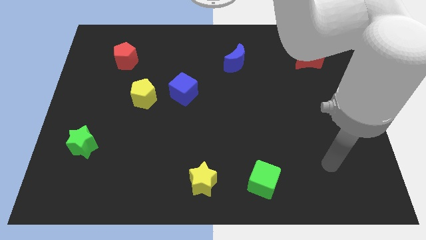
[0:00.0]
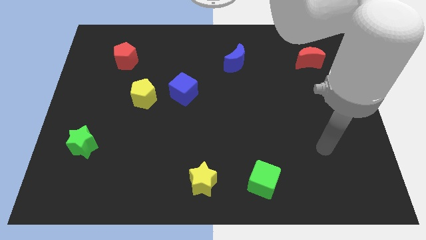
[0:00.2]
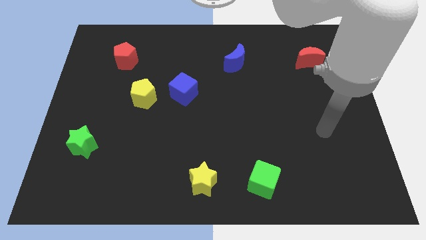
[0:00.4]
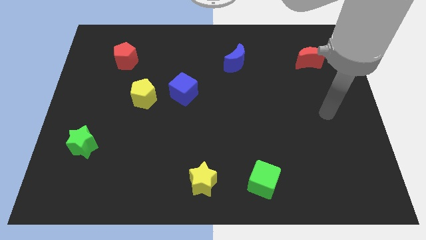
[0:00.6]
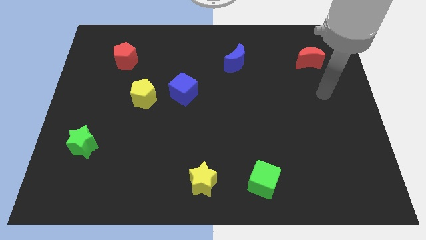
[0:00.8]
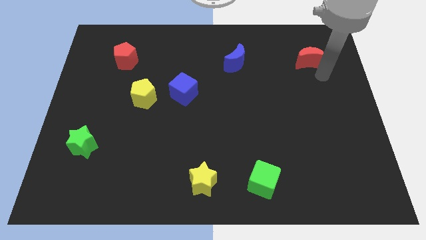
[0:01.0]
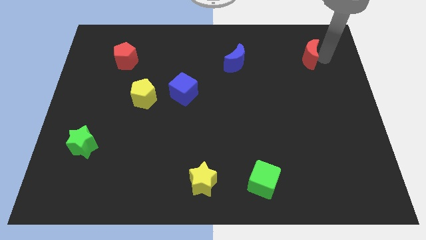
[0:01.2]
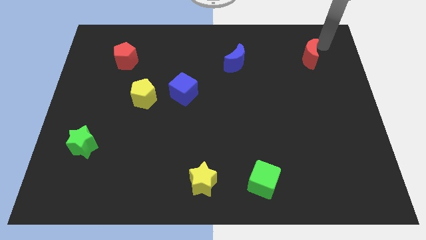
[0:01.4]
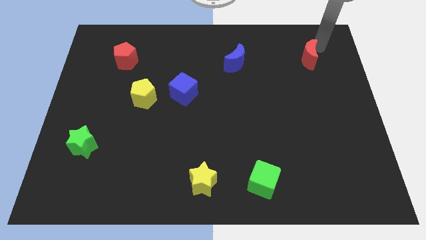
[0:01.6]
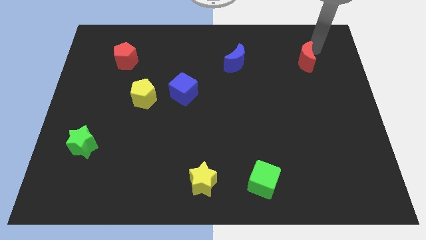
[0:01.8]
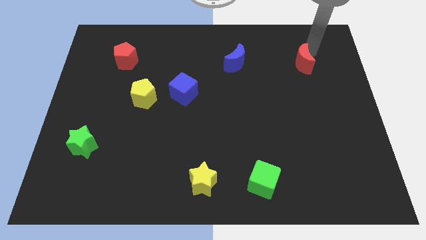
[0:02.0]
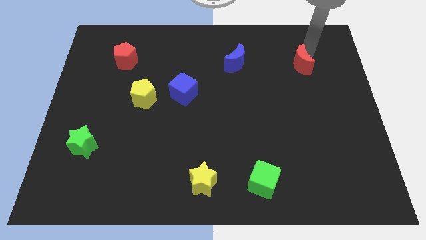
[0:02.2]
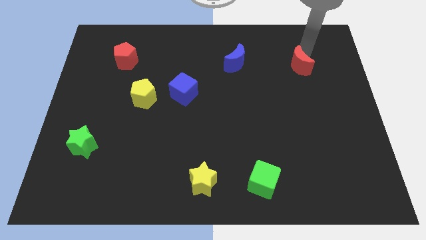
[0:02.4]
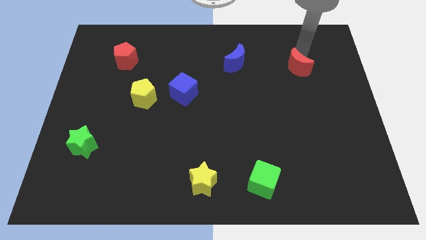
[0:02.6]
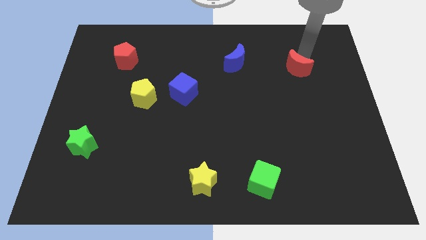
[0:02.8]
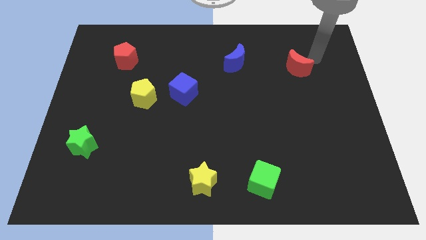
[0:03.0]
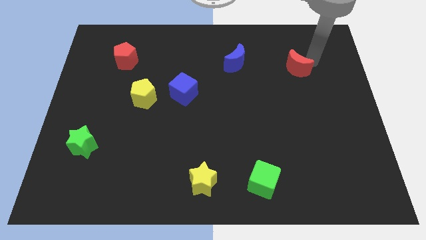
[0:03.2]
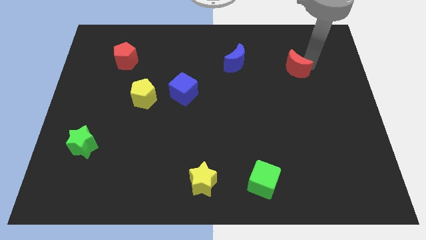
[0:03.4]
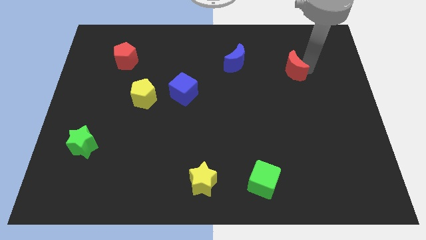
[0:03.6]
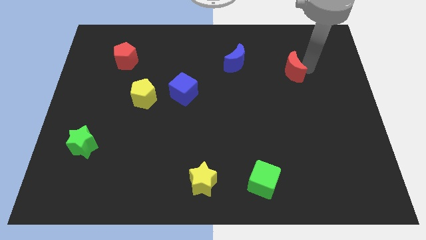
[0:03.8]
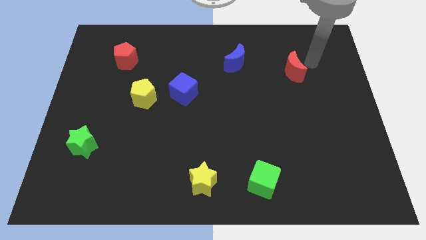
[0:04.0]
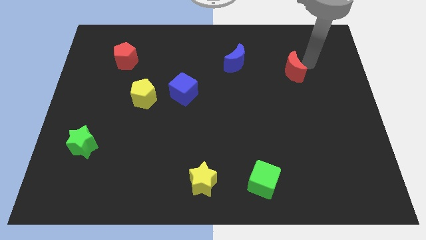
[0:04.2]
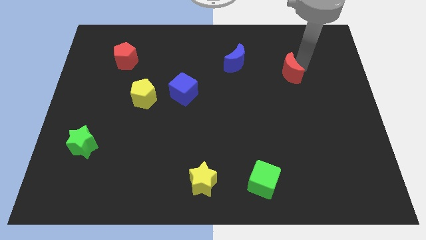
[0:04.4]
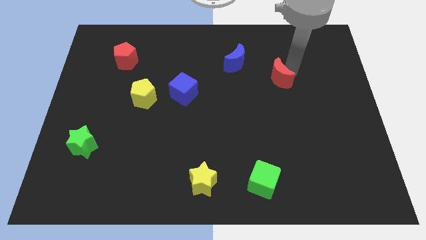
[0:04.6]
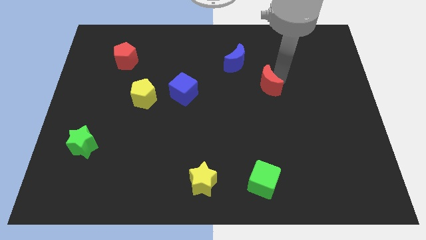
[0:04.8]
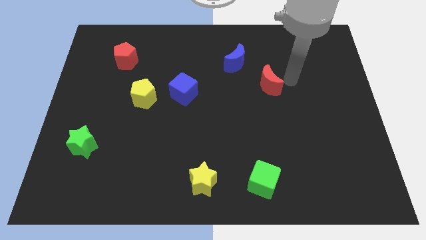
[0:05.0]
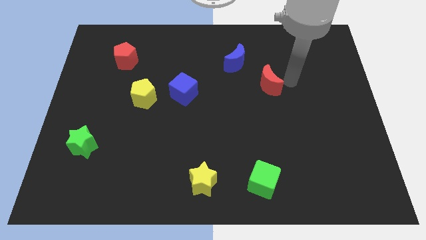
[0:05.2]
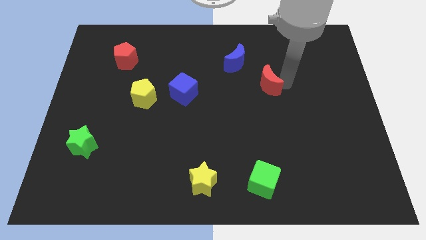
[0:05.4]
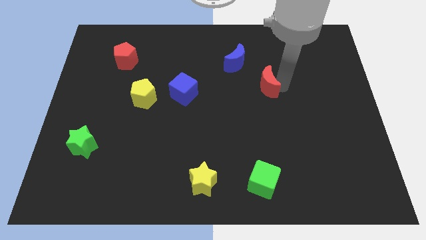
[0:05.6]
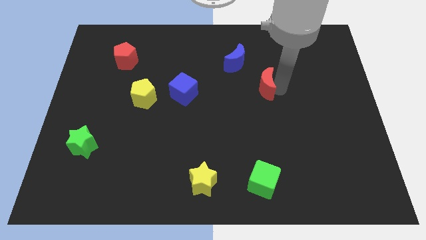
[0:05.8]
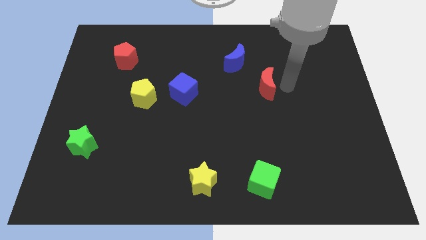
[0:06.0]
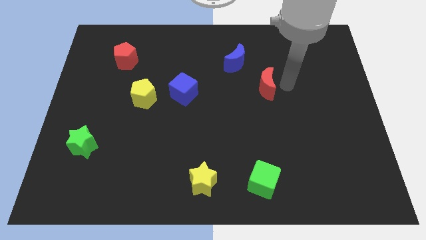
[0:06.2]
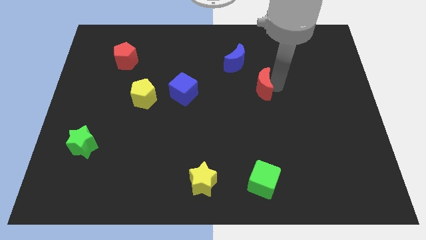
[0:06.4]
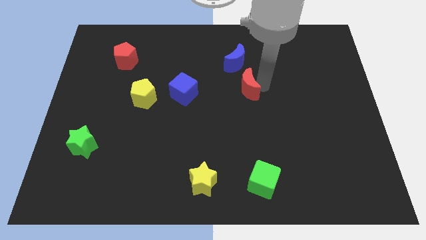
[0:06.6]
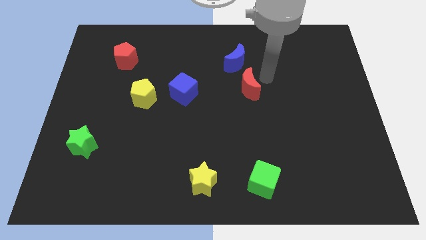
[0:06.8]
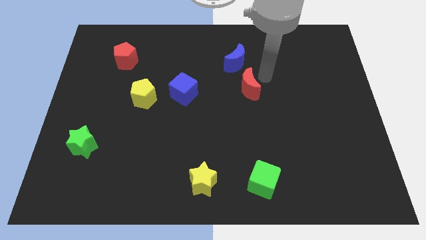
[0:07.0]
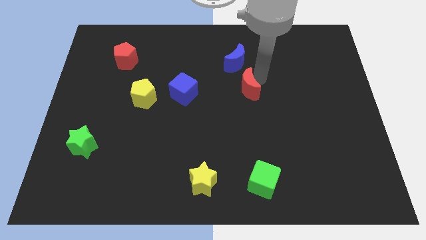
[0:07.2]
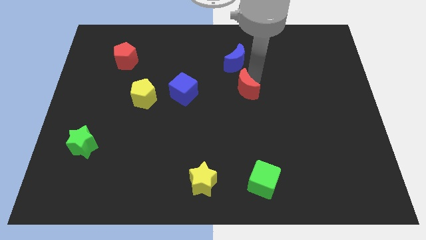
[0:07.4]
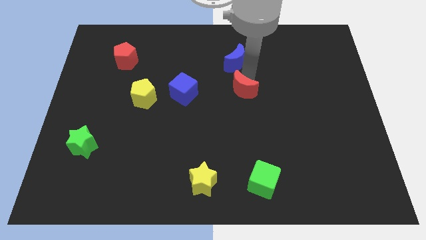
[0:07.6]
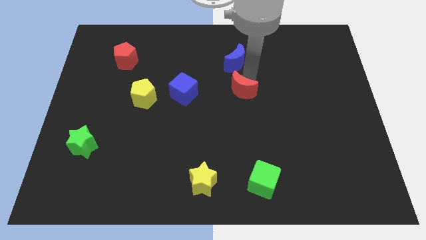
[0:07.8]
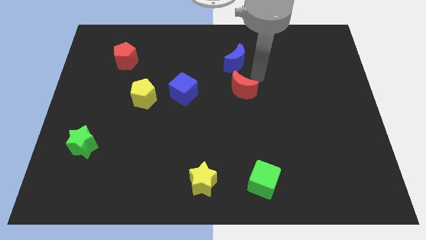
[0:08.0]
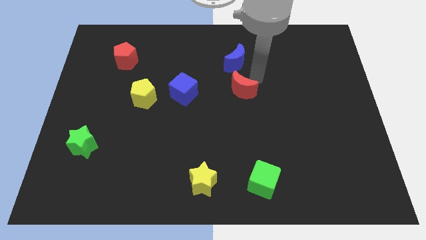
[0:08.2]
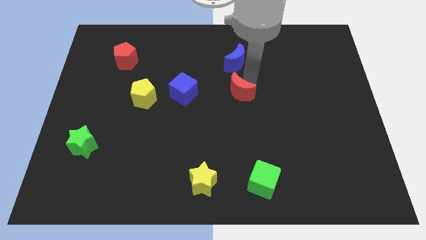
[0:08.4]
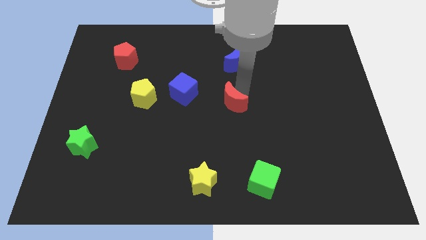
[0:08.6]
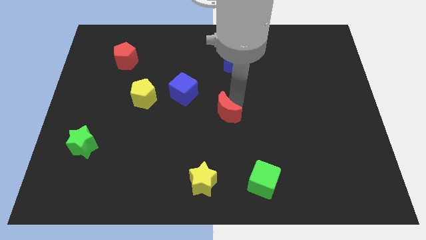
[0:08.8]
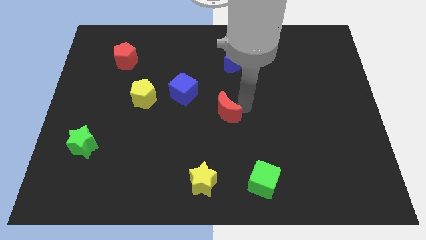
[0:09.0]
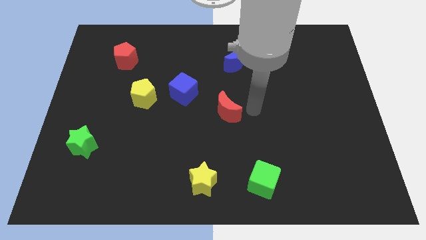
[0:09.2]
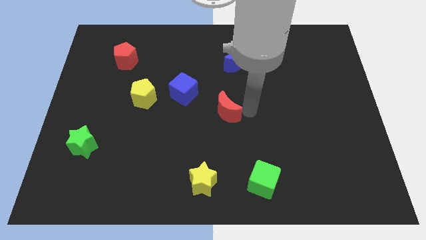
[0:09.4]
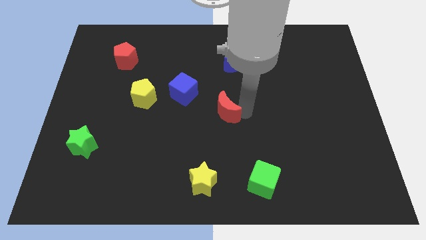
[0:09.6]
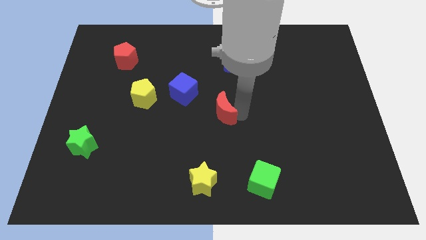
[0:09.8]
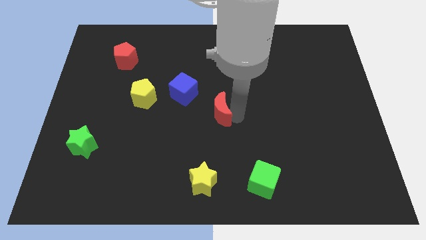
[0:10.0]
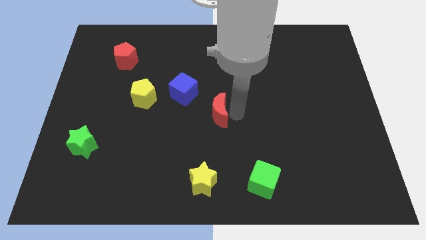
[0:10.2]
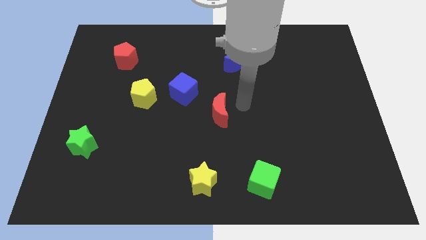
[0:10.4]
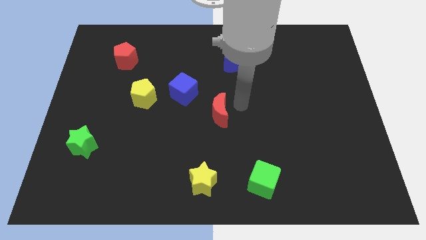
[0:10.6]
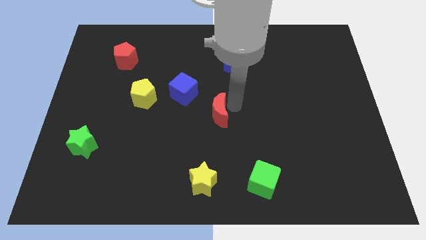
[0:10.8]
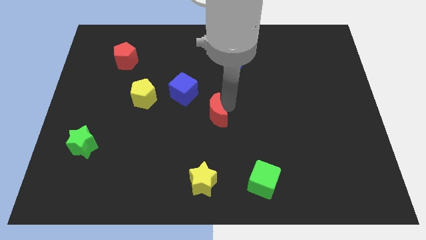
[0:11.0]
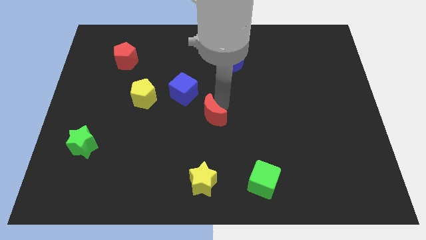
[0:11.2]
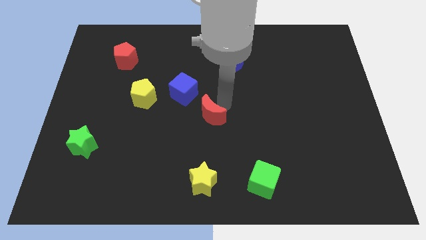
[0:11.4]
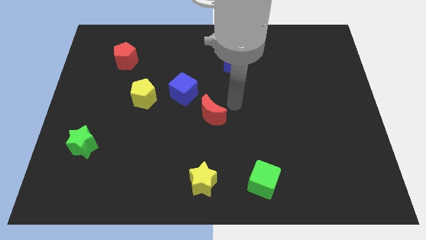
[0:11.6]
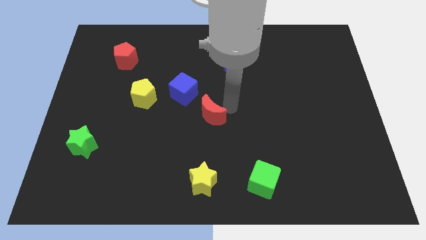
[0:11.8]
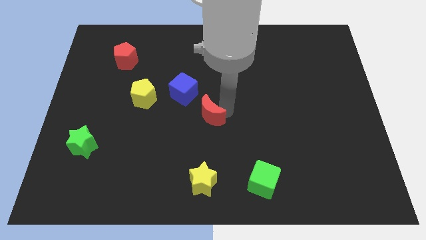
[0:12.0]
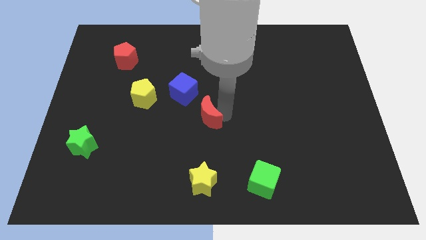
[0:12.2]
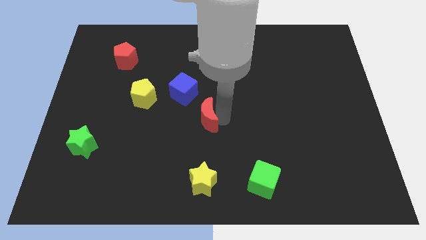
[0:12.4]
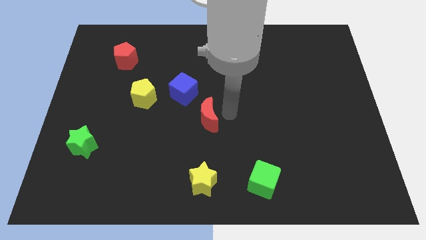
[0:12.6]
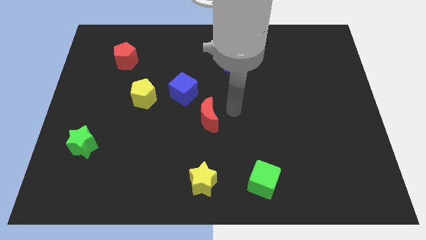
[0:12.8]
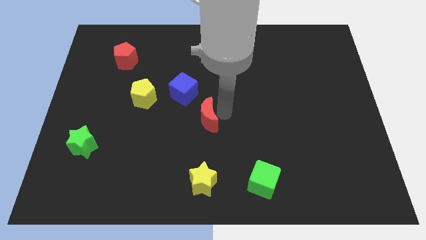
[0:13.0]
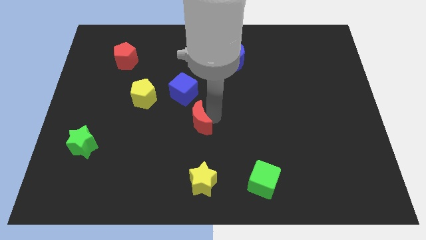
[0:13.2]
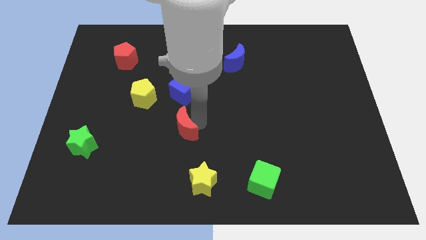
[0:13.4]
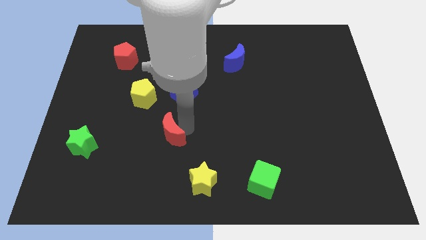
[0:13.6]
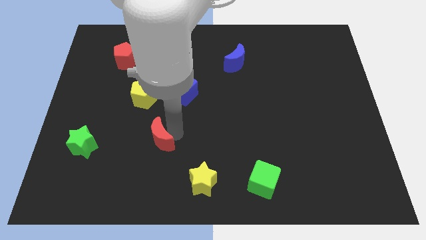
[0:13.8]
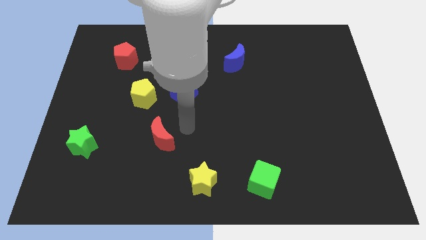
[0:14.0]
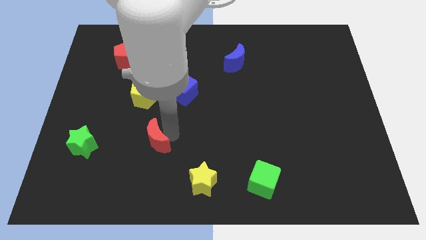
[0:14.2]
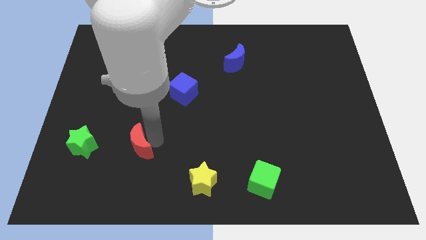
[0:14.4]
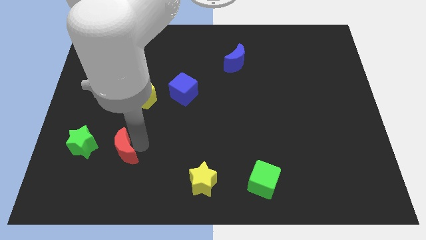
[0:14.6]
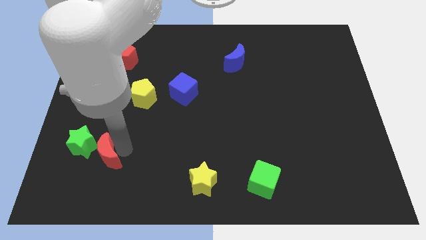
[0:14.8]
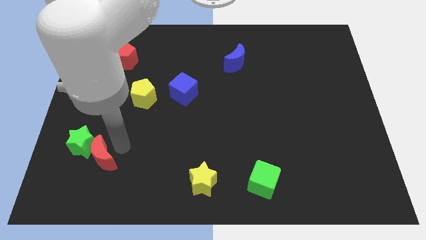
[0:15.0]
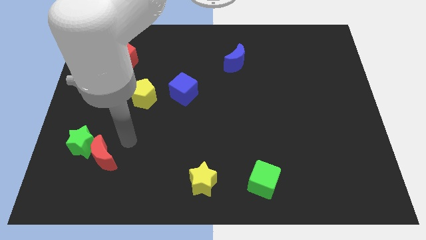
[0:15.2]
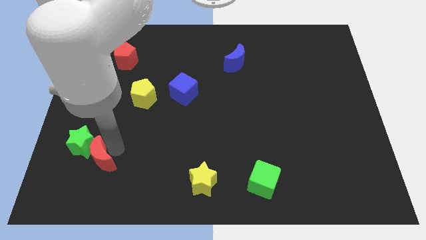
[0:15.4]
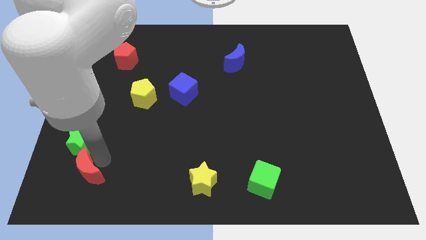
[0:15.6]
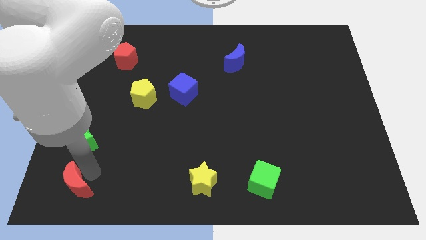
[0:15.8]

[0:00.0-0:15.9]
push the red moon to the bottom left
